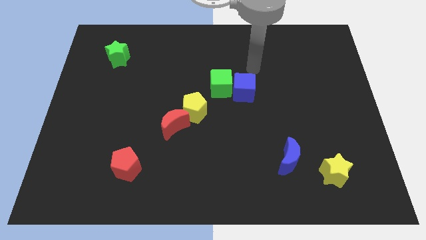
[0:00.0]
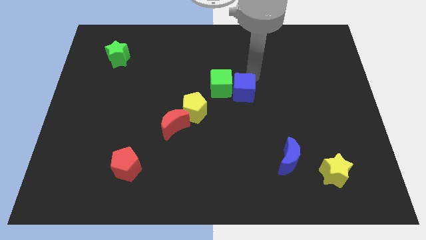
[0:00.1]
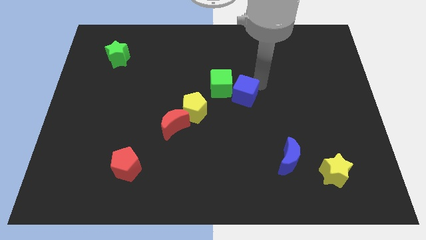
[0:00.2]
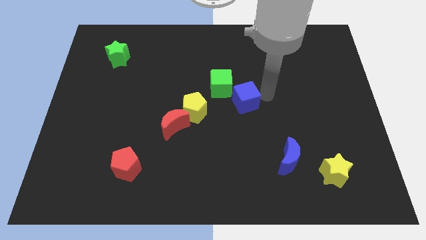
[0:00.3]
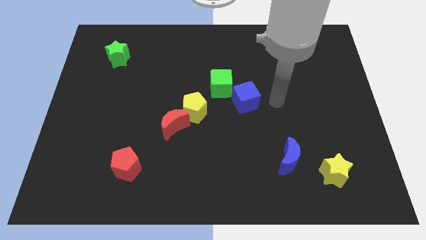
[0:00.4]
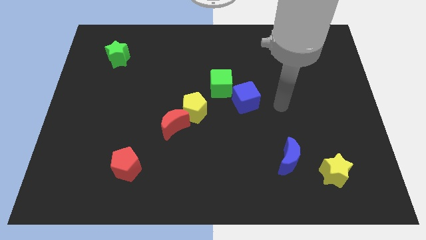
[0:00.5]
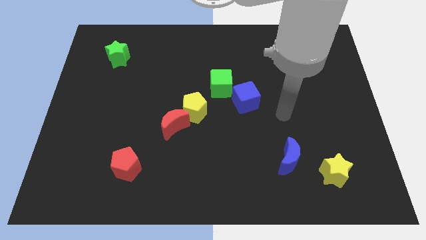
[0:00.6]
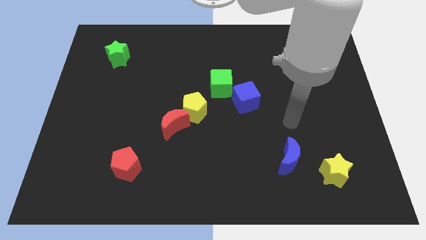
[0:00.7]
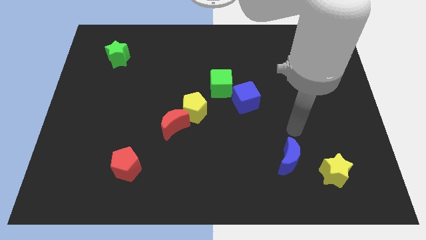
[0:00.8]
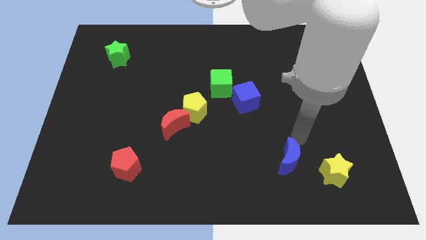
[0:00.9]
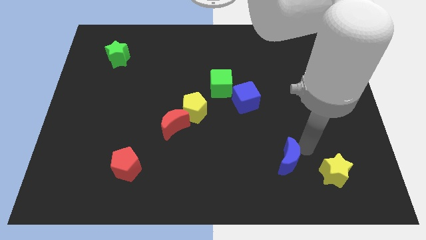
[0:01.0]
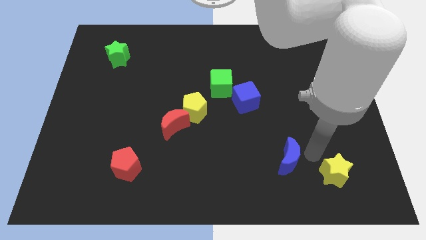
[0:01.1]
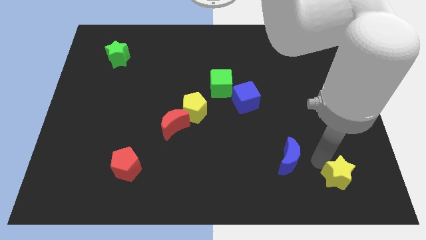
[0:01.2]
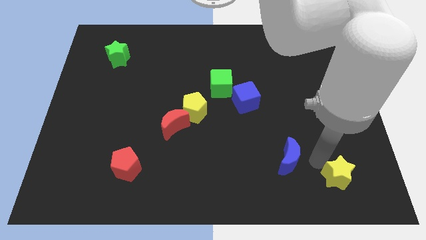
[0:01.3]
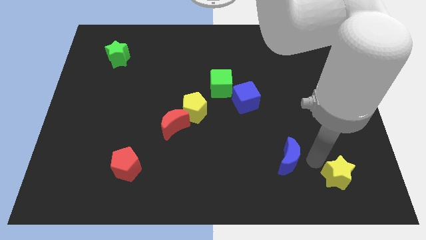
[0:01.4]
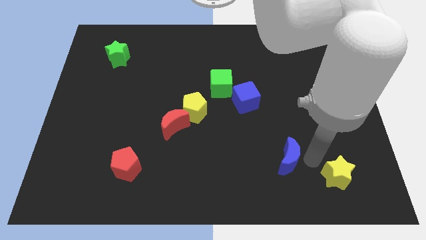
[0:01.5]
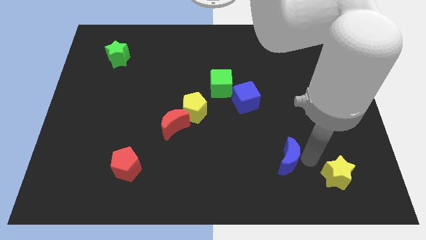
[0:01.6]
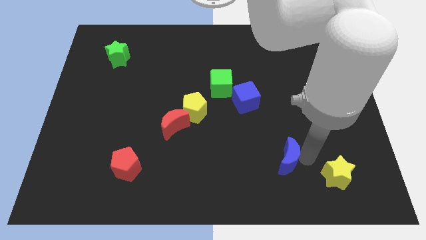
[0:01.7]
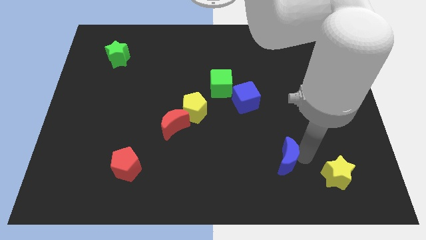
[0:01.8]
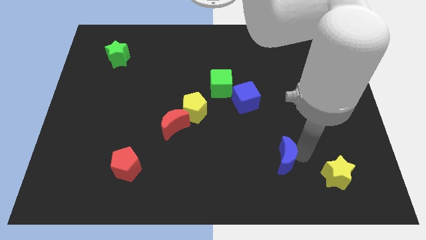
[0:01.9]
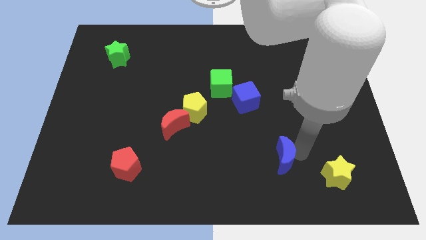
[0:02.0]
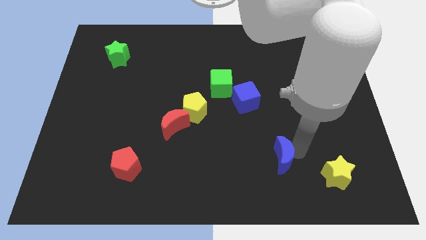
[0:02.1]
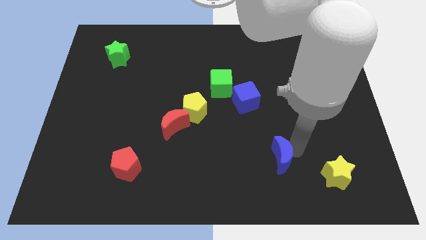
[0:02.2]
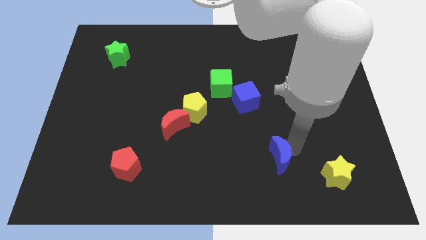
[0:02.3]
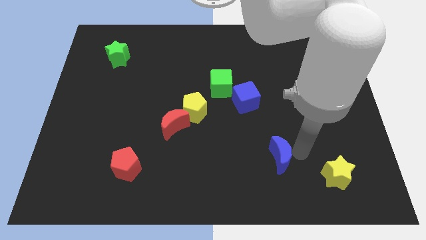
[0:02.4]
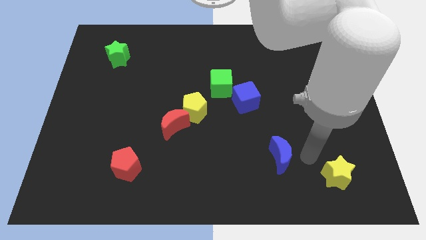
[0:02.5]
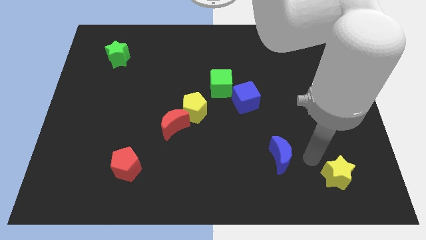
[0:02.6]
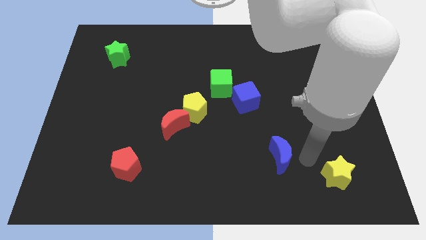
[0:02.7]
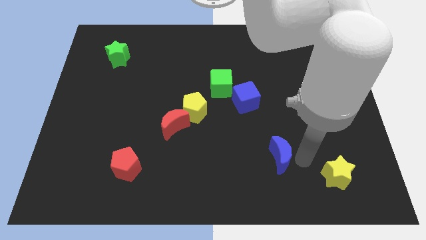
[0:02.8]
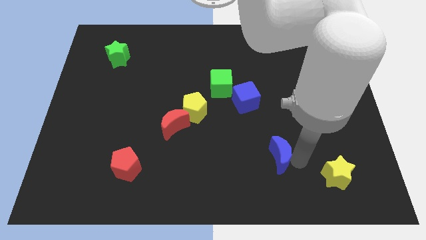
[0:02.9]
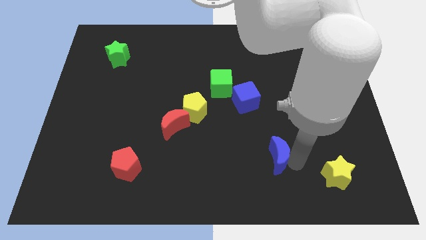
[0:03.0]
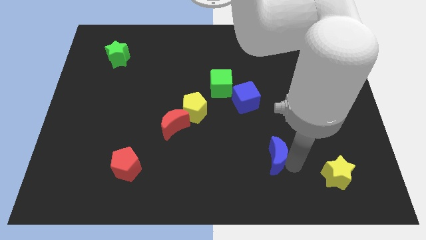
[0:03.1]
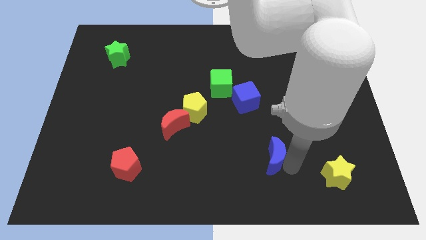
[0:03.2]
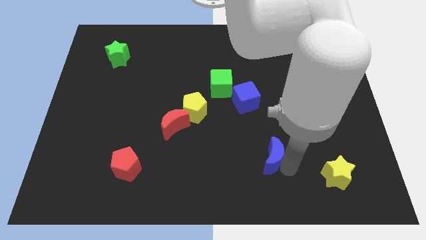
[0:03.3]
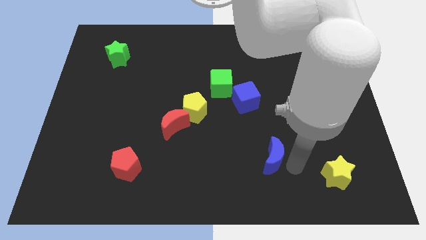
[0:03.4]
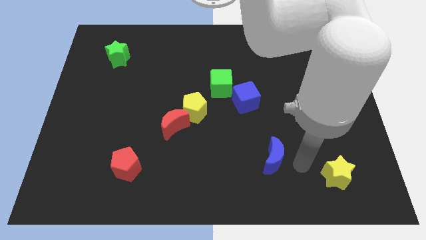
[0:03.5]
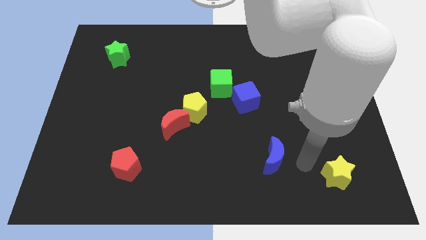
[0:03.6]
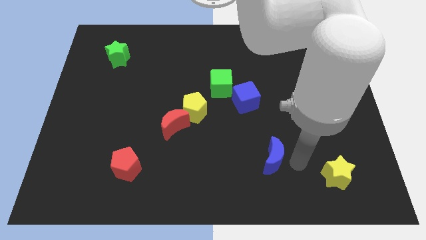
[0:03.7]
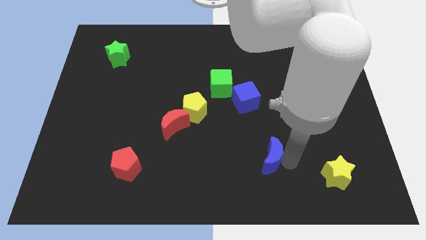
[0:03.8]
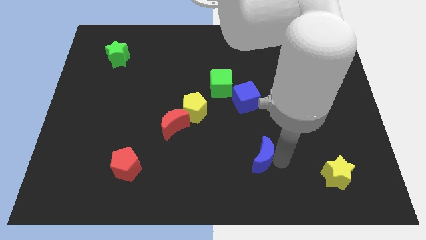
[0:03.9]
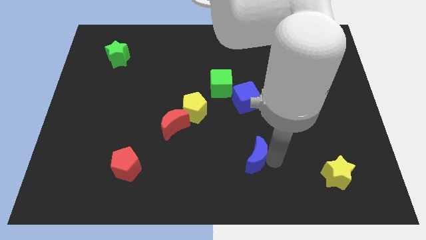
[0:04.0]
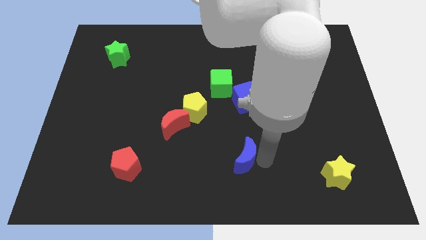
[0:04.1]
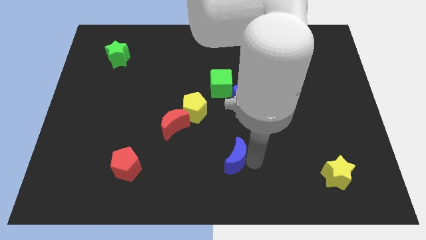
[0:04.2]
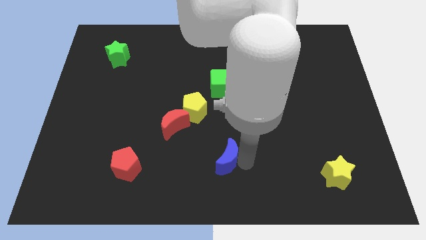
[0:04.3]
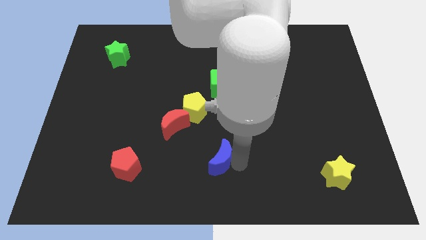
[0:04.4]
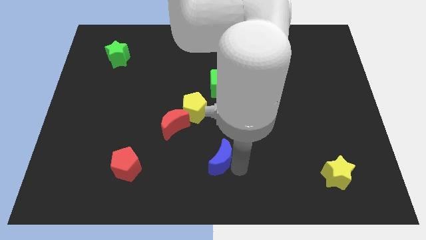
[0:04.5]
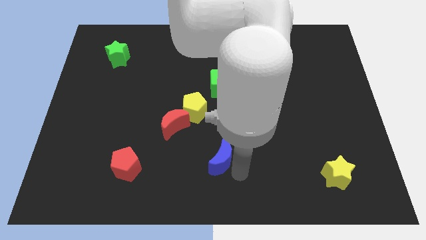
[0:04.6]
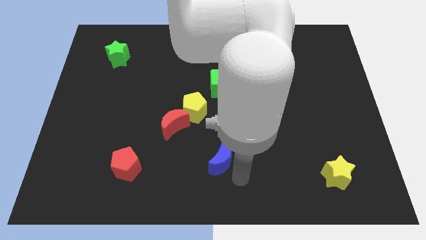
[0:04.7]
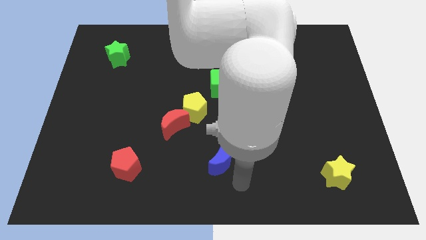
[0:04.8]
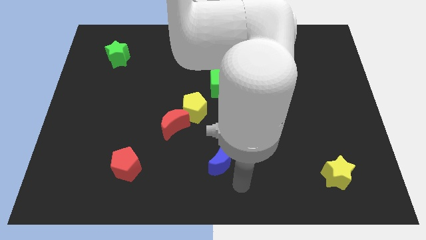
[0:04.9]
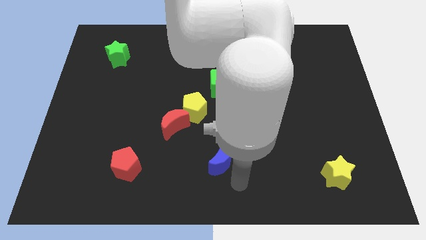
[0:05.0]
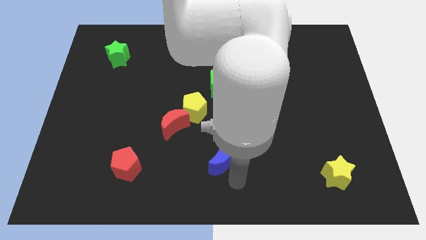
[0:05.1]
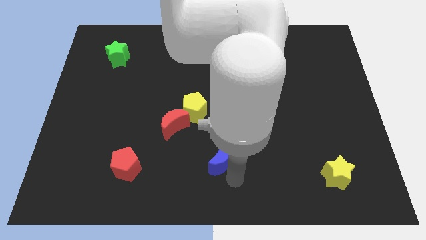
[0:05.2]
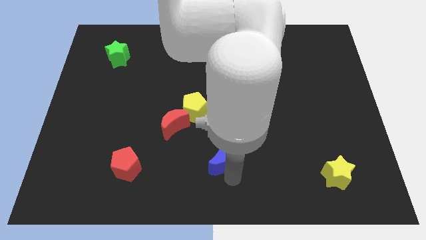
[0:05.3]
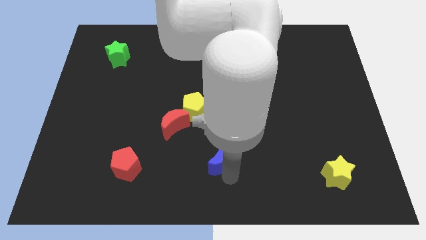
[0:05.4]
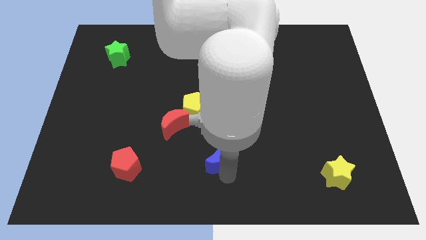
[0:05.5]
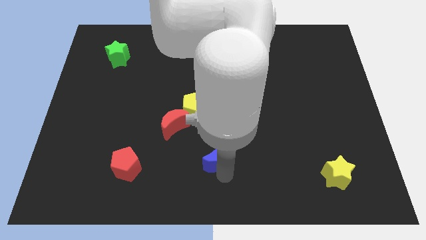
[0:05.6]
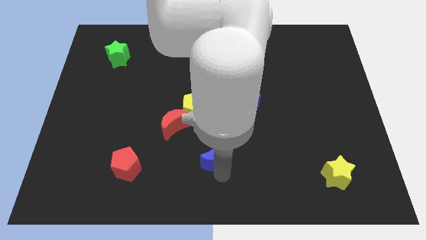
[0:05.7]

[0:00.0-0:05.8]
push the blue moon to the bottom right of the red moon

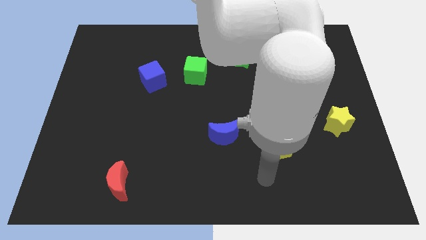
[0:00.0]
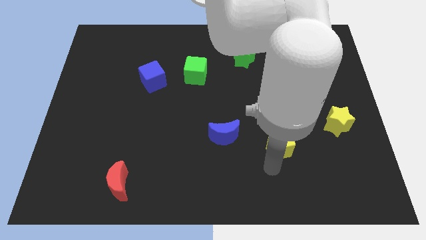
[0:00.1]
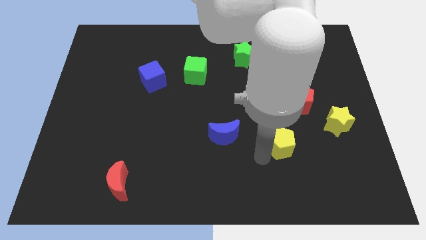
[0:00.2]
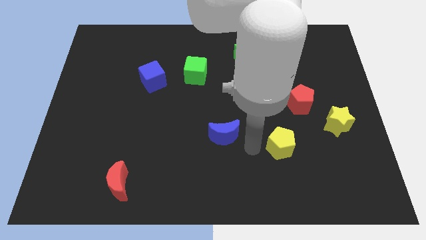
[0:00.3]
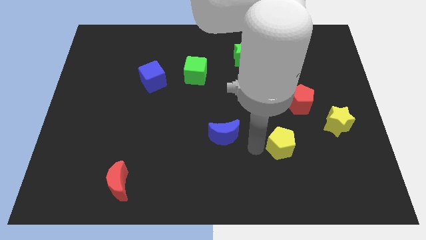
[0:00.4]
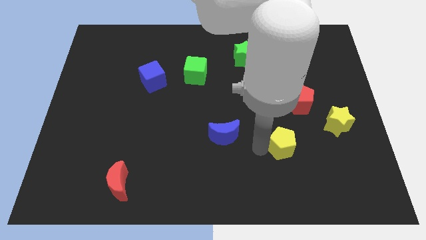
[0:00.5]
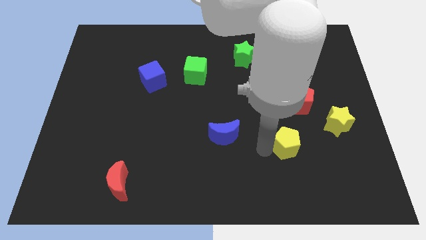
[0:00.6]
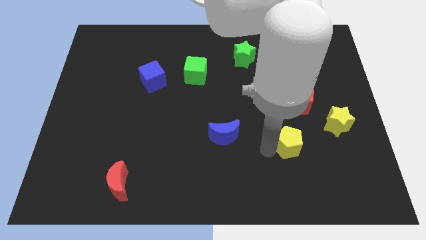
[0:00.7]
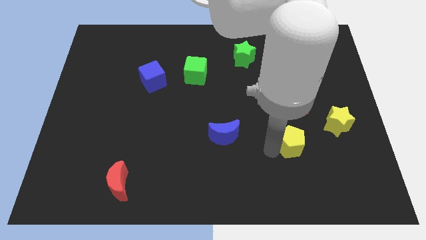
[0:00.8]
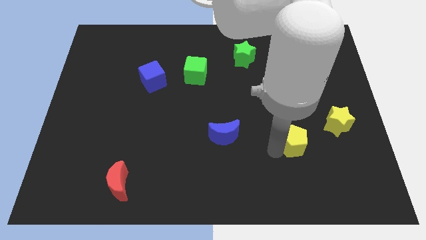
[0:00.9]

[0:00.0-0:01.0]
put the yellow pentagon diagonally down and to the left of the yellow star
